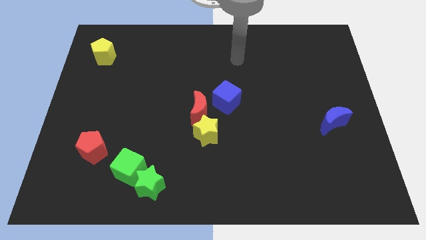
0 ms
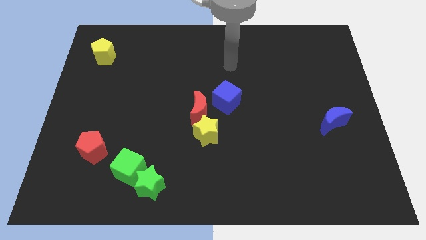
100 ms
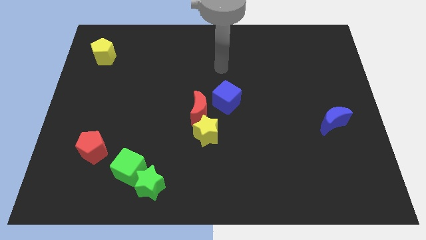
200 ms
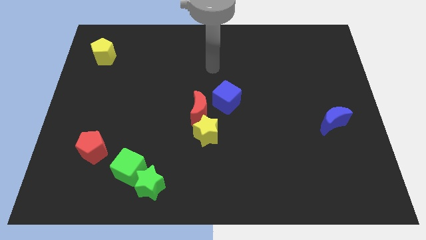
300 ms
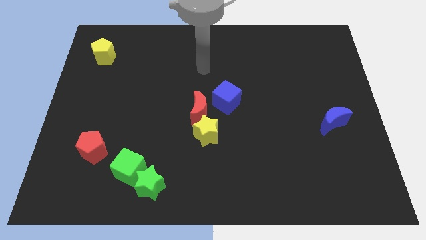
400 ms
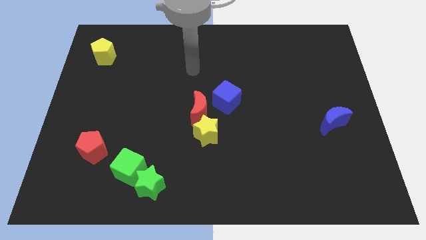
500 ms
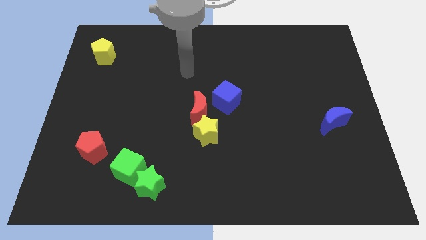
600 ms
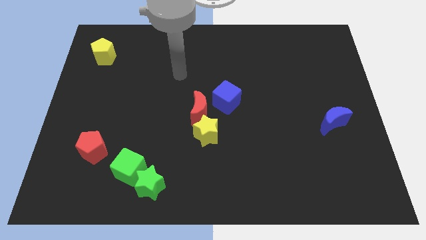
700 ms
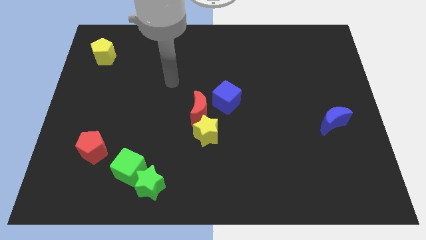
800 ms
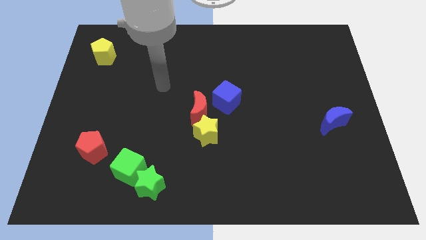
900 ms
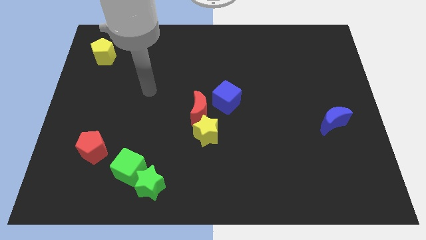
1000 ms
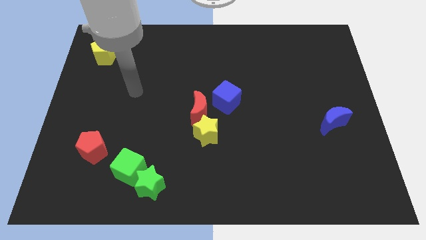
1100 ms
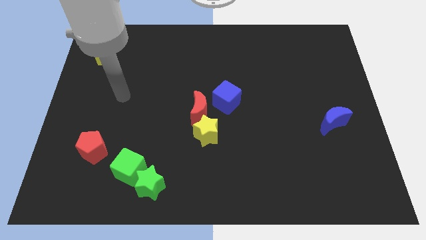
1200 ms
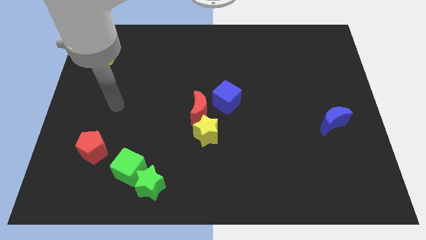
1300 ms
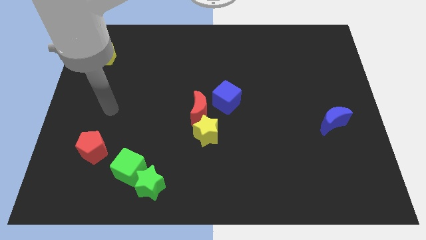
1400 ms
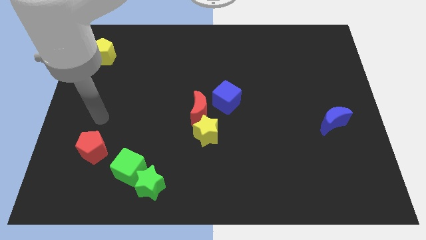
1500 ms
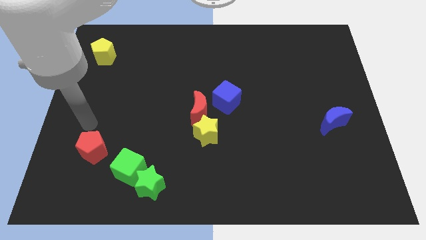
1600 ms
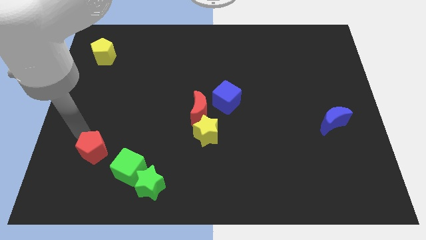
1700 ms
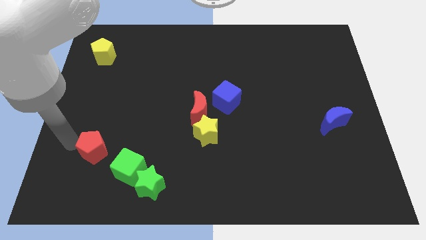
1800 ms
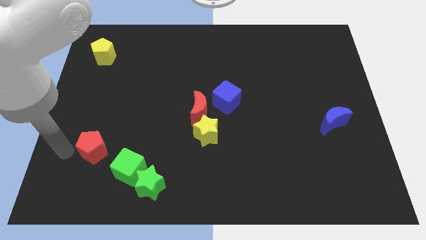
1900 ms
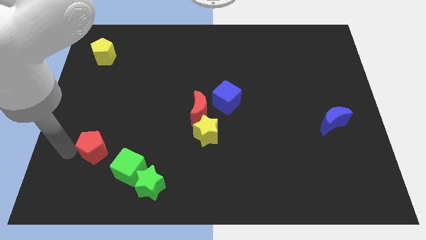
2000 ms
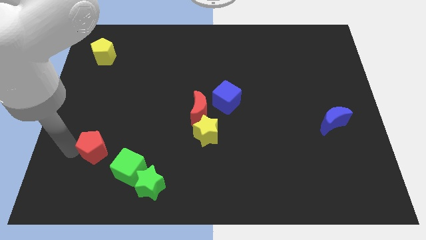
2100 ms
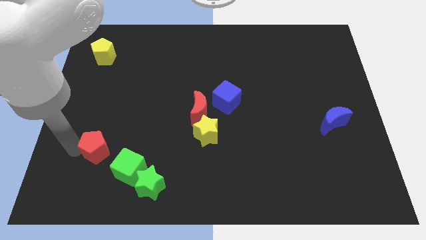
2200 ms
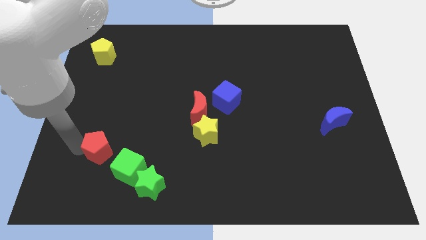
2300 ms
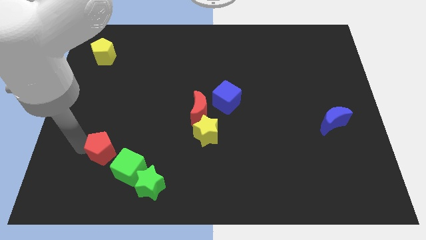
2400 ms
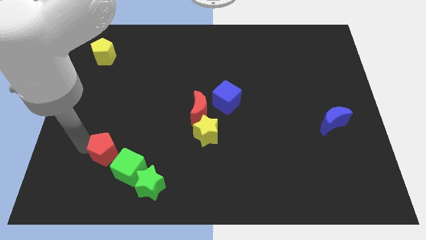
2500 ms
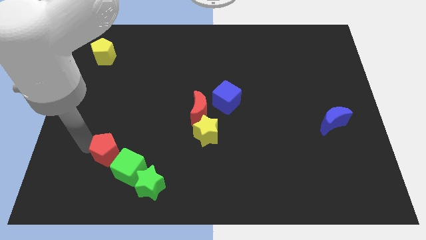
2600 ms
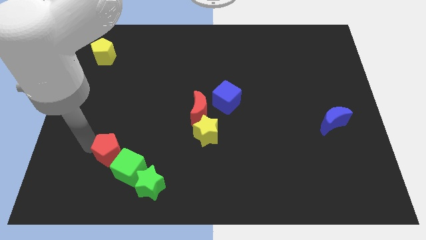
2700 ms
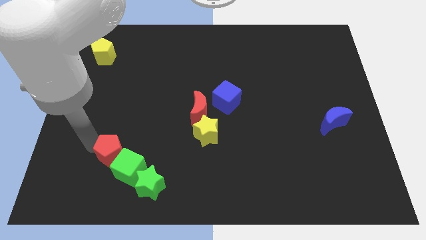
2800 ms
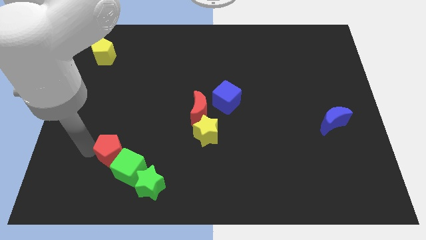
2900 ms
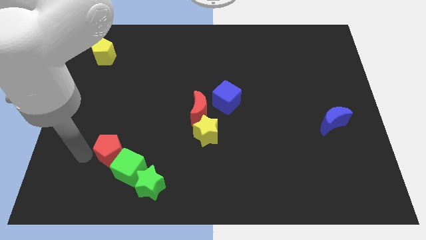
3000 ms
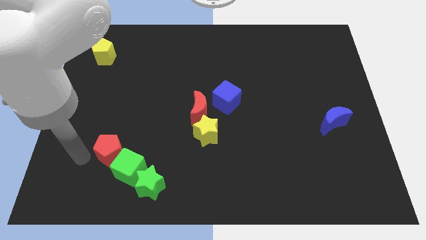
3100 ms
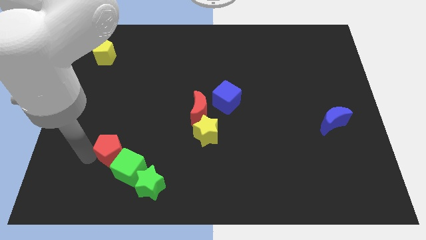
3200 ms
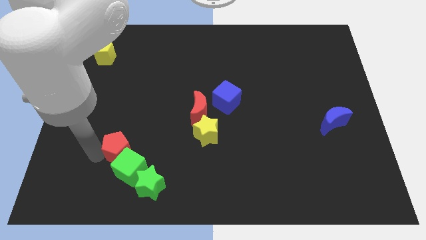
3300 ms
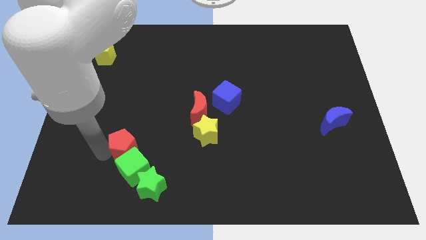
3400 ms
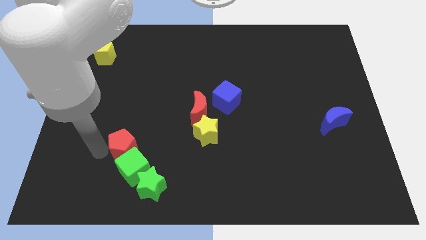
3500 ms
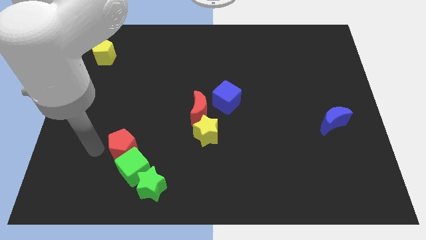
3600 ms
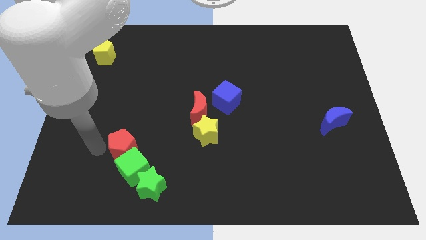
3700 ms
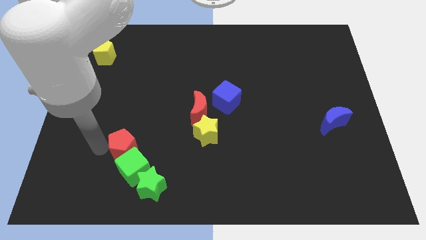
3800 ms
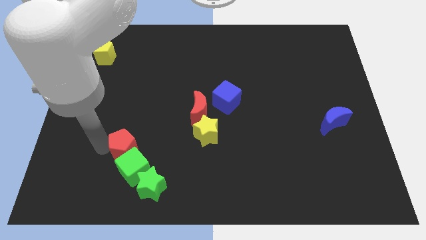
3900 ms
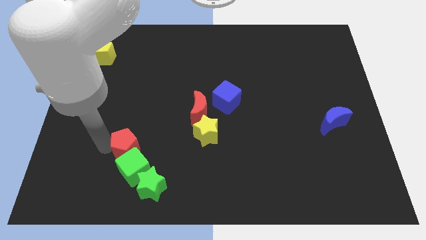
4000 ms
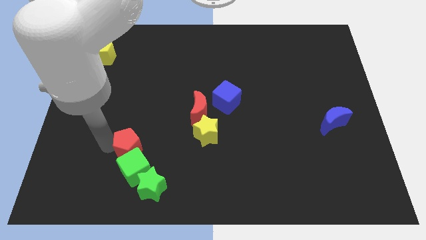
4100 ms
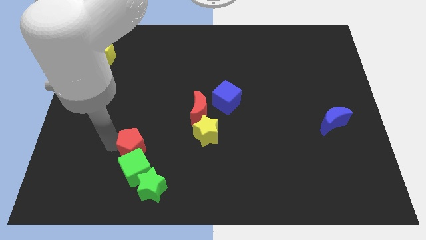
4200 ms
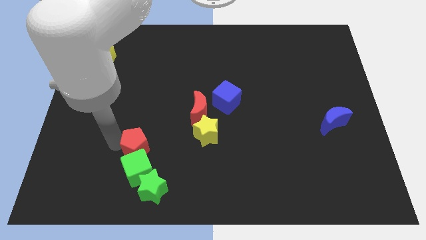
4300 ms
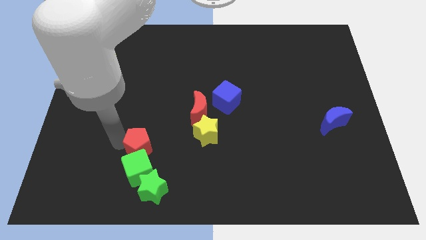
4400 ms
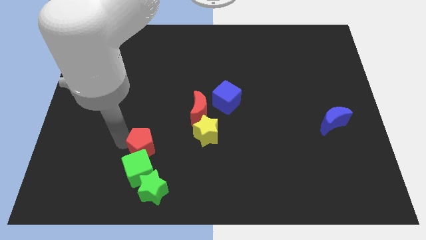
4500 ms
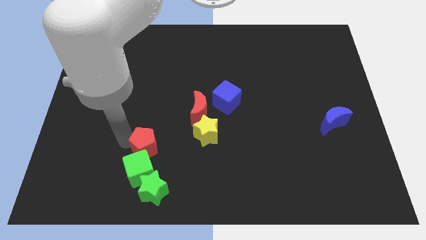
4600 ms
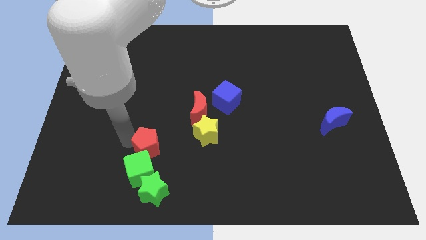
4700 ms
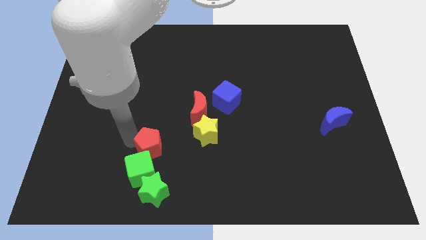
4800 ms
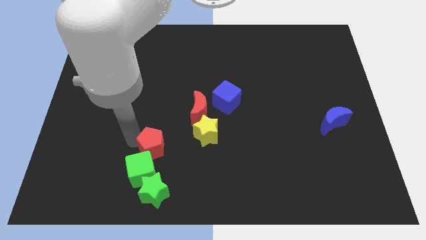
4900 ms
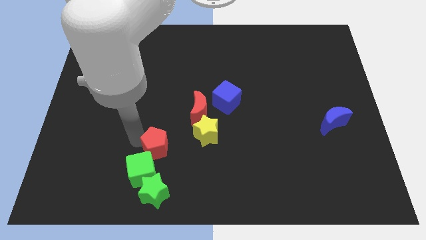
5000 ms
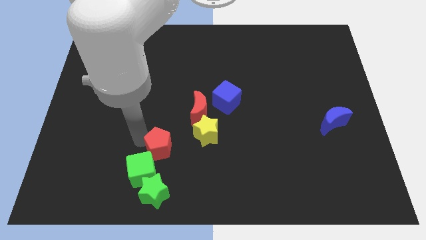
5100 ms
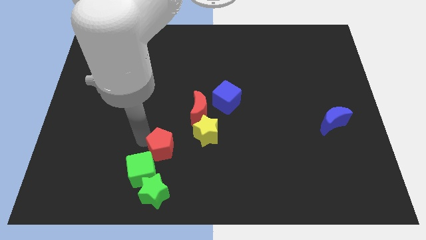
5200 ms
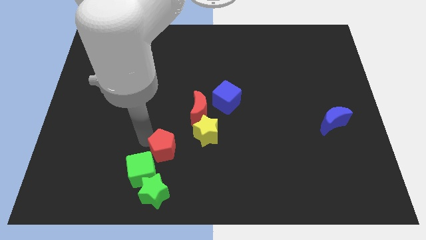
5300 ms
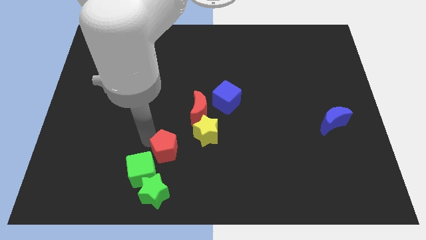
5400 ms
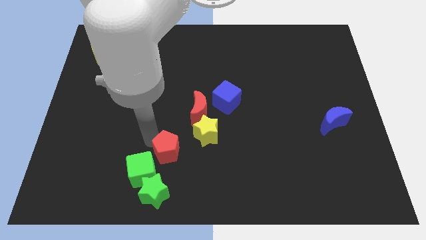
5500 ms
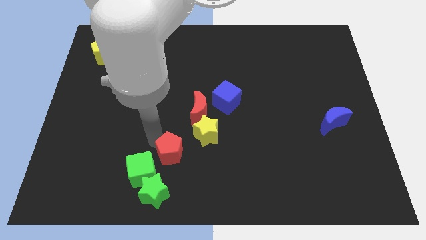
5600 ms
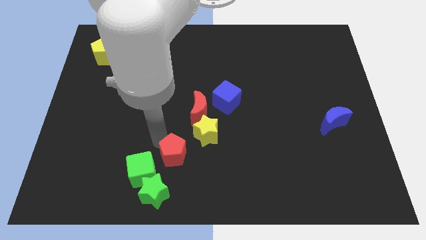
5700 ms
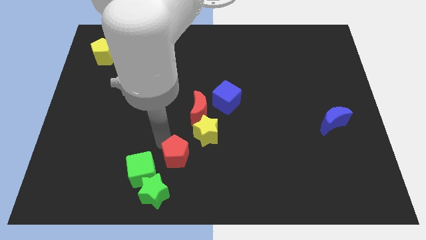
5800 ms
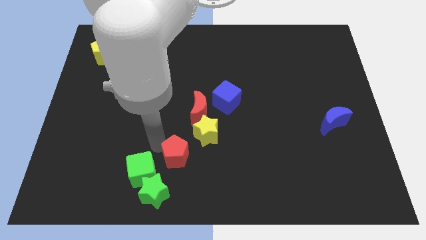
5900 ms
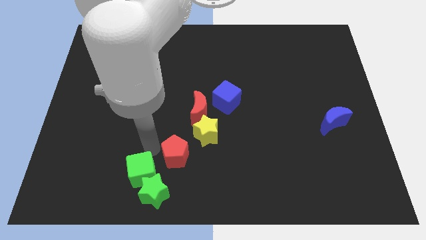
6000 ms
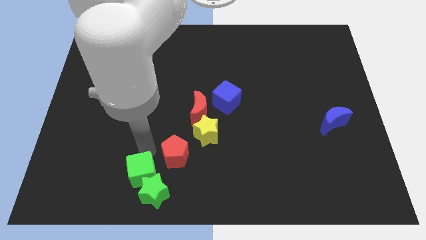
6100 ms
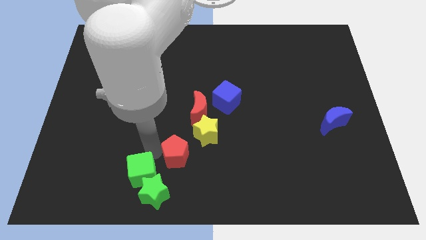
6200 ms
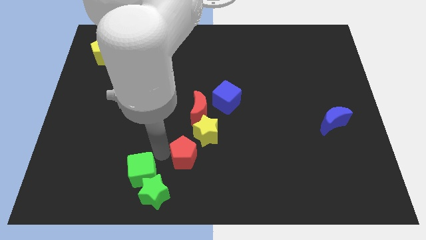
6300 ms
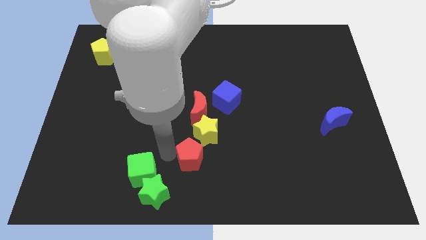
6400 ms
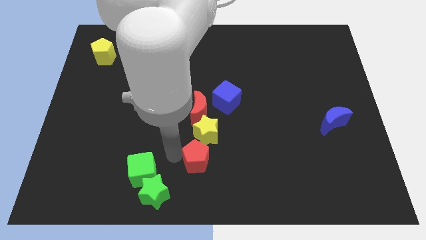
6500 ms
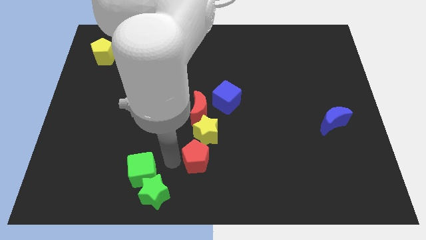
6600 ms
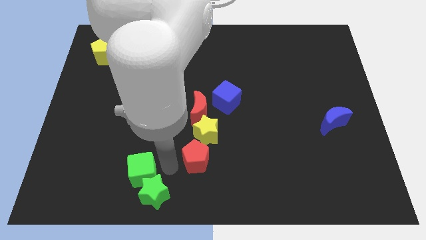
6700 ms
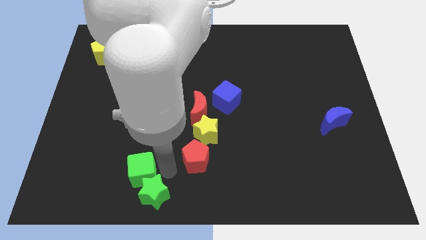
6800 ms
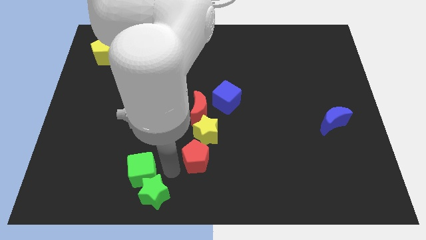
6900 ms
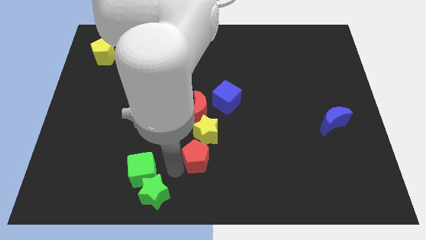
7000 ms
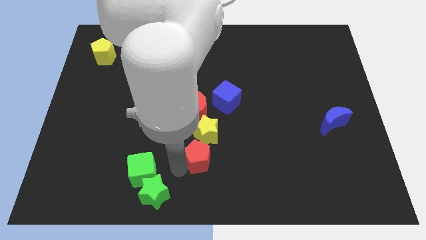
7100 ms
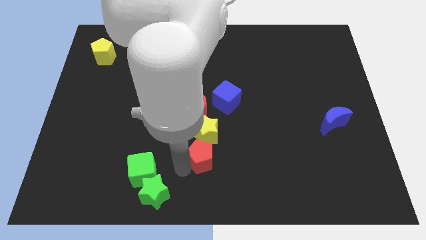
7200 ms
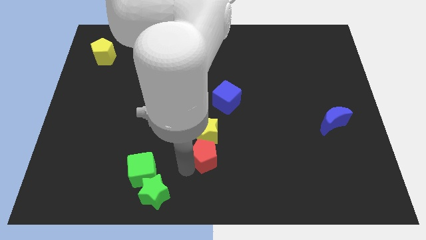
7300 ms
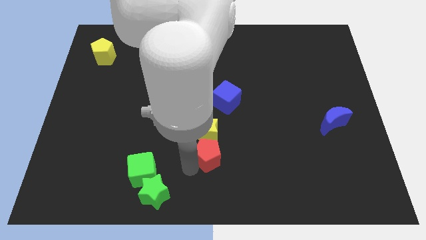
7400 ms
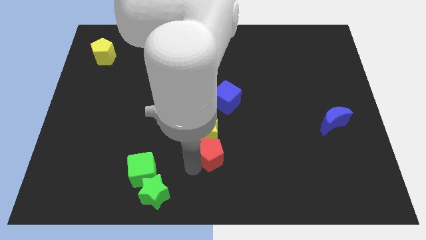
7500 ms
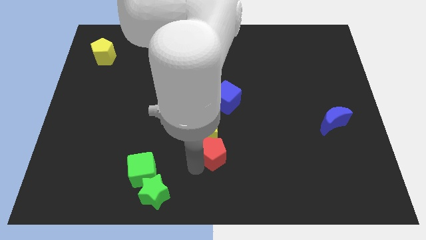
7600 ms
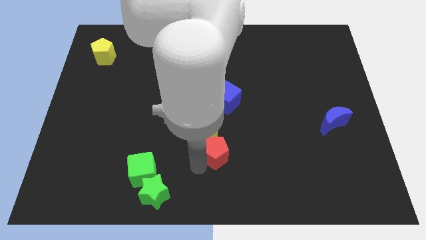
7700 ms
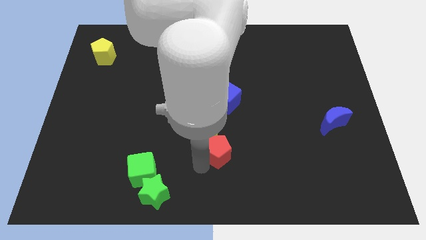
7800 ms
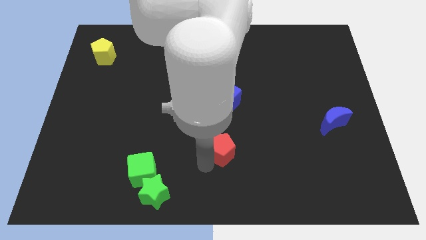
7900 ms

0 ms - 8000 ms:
slide the red pentagon to the right of the yellow star
